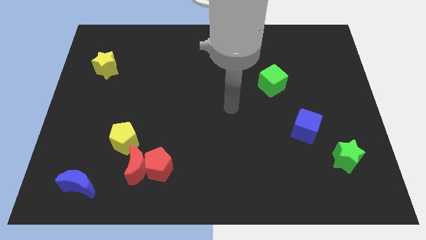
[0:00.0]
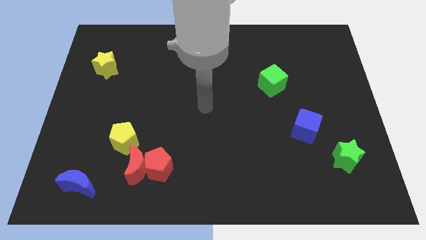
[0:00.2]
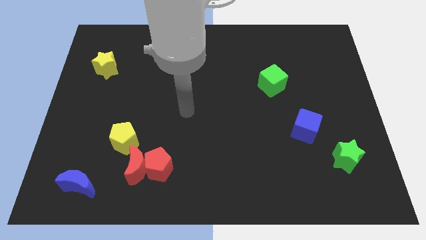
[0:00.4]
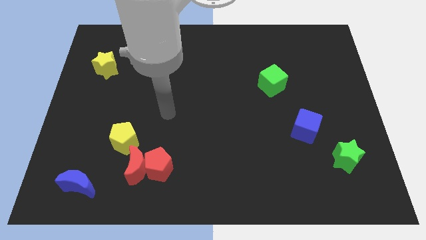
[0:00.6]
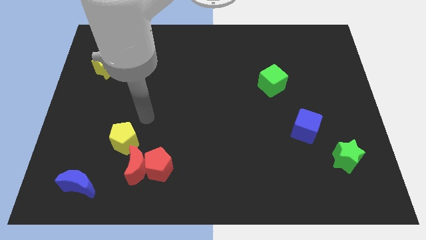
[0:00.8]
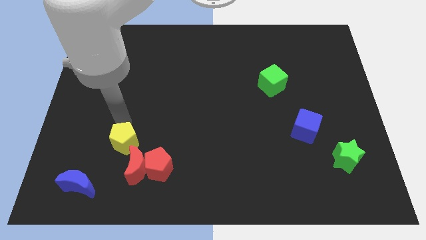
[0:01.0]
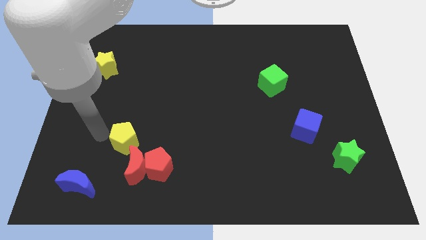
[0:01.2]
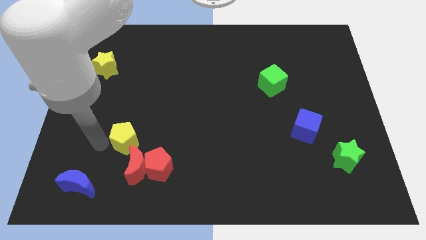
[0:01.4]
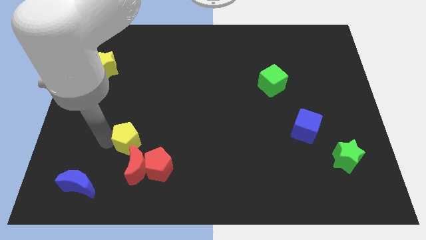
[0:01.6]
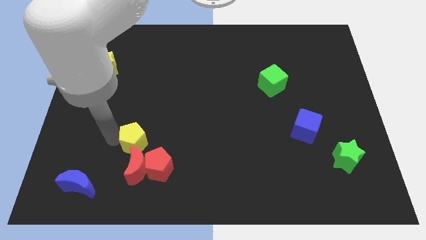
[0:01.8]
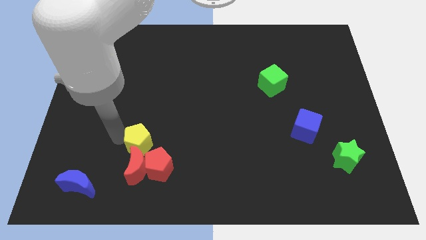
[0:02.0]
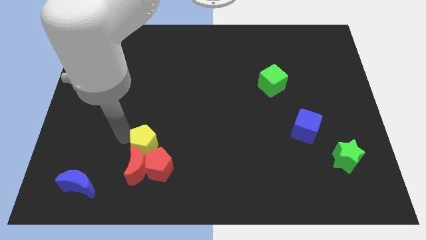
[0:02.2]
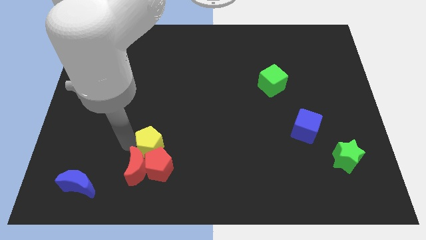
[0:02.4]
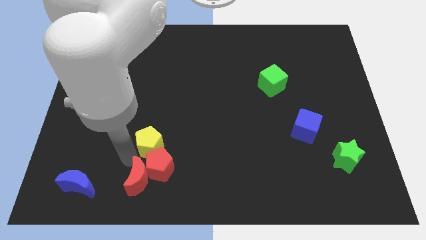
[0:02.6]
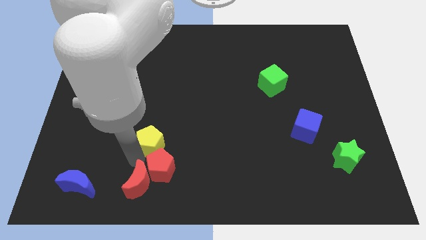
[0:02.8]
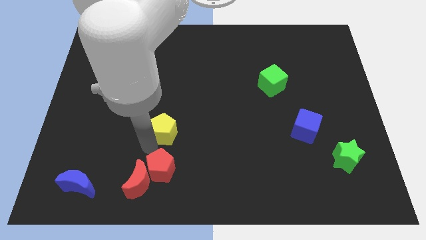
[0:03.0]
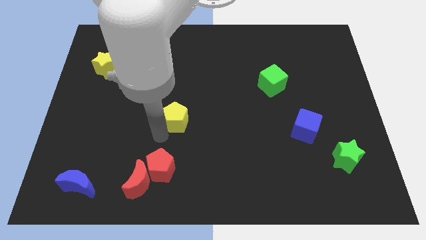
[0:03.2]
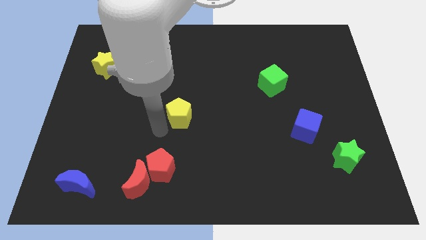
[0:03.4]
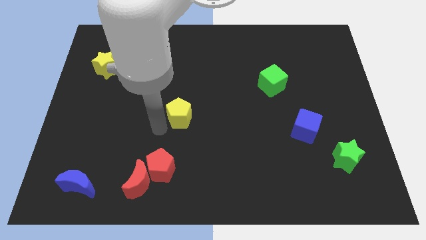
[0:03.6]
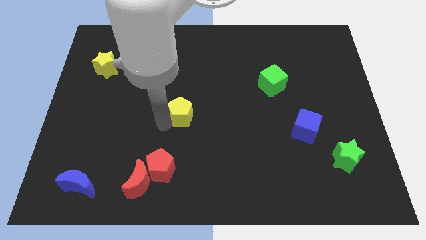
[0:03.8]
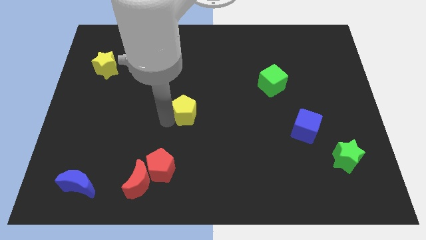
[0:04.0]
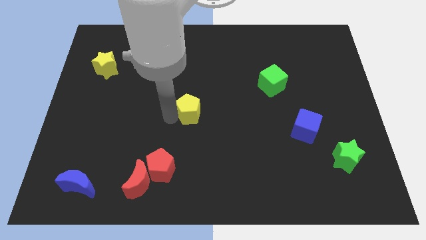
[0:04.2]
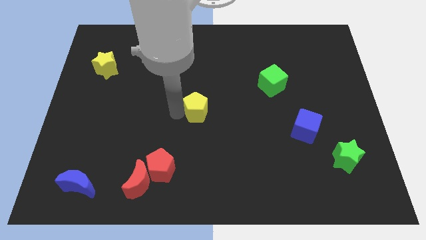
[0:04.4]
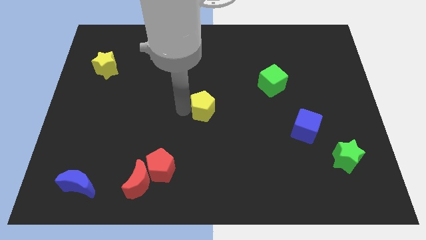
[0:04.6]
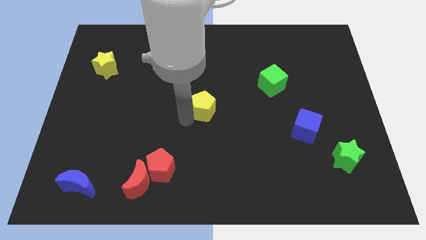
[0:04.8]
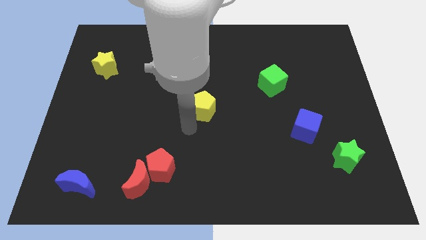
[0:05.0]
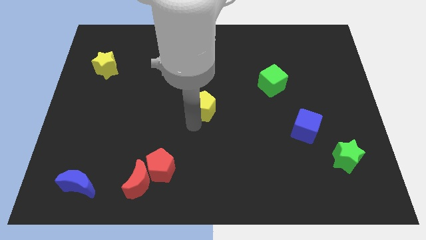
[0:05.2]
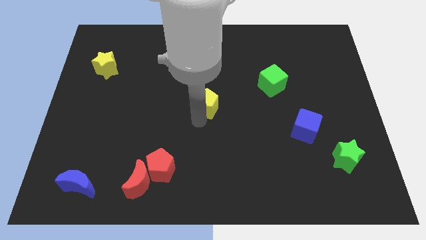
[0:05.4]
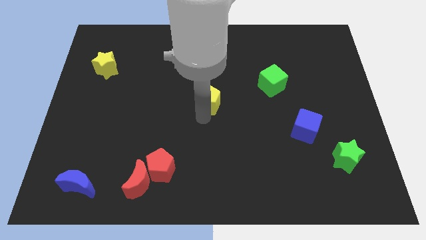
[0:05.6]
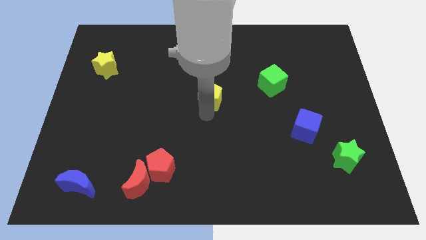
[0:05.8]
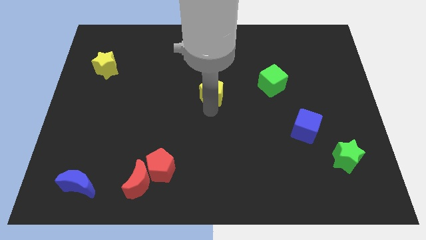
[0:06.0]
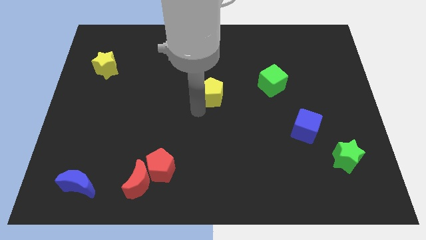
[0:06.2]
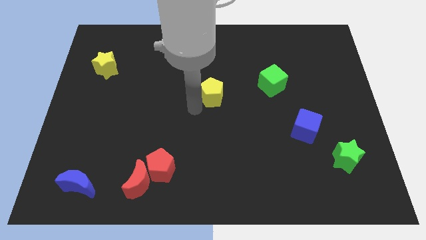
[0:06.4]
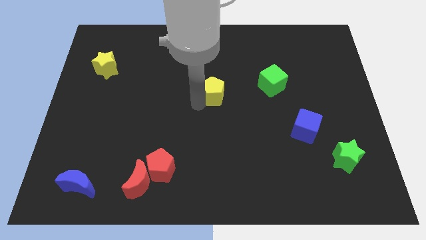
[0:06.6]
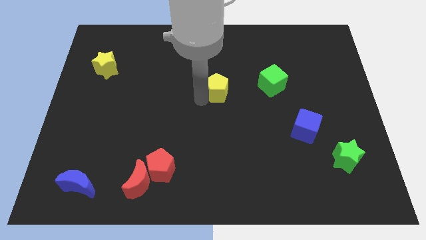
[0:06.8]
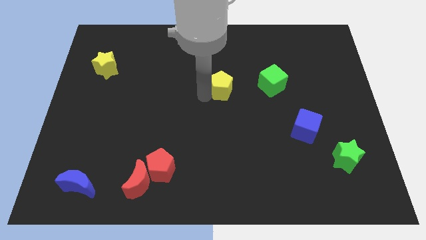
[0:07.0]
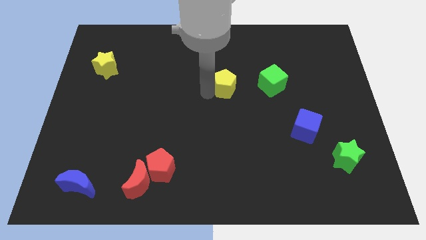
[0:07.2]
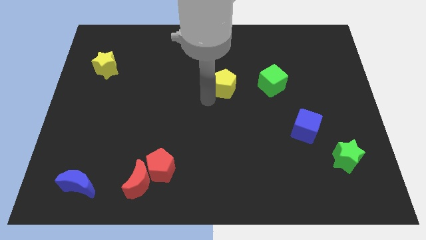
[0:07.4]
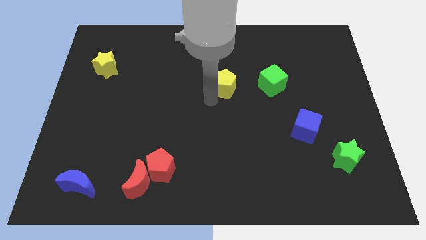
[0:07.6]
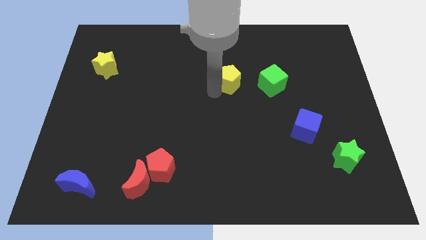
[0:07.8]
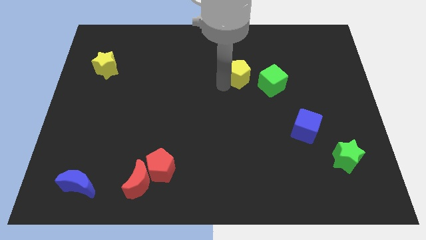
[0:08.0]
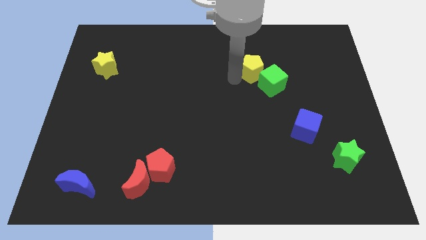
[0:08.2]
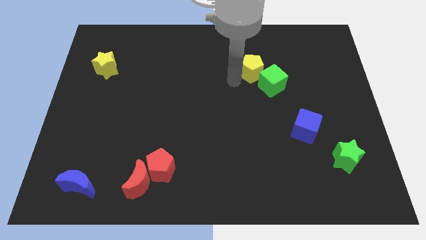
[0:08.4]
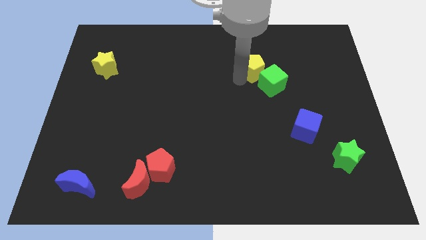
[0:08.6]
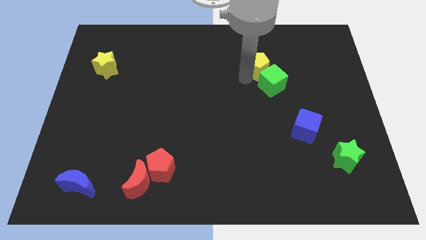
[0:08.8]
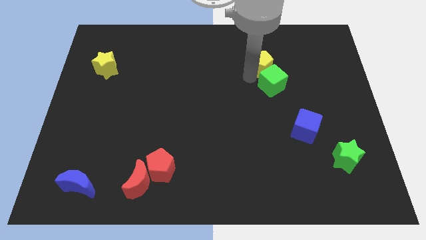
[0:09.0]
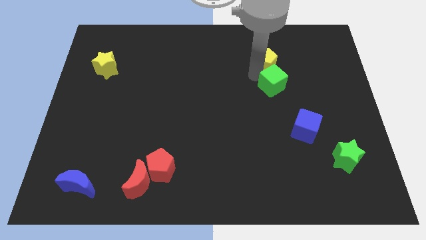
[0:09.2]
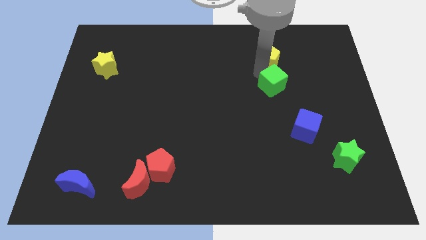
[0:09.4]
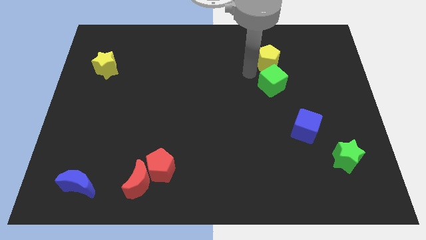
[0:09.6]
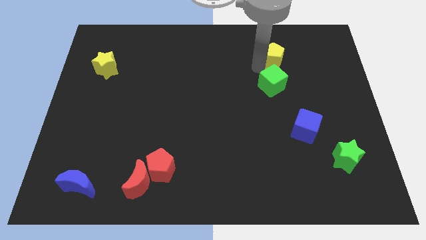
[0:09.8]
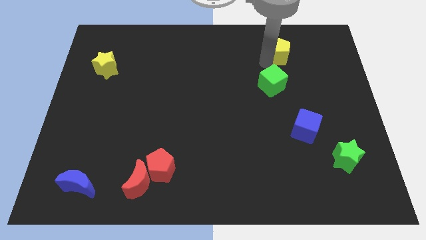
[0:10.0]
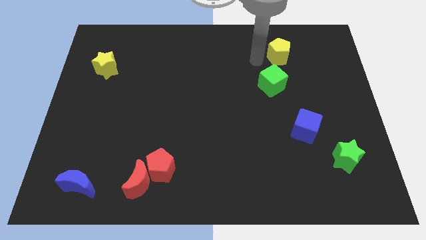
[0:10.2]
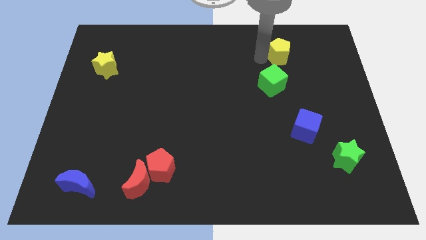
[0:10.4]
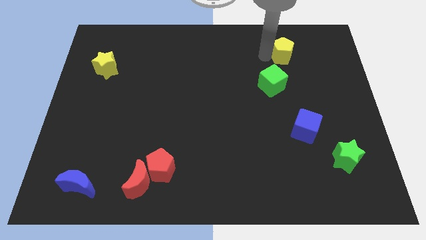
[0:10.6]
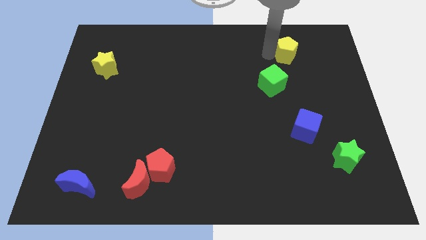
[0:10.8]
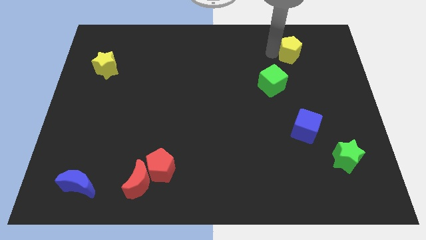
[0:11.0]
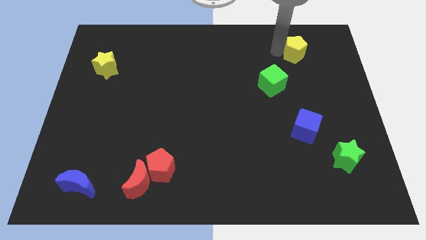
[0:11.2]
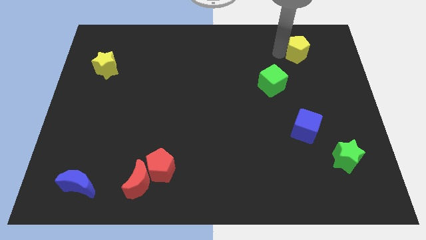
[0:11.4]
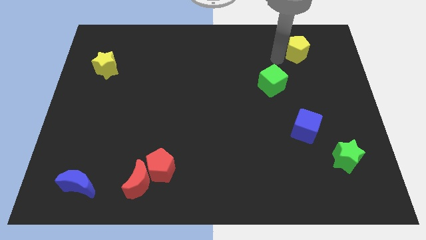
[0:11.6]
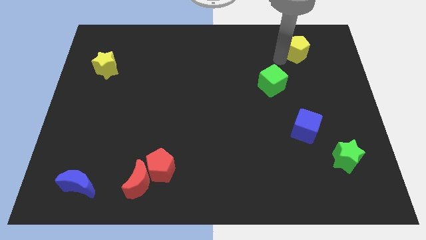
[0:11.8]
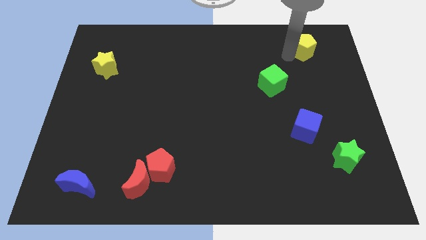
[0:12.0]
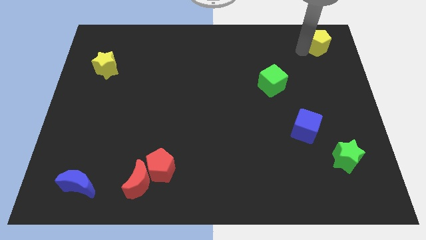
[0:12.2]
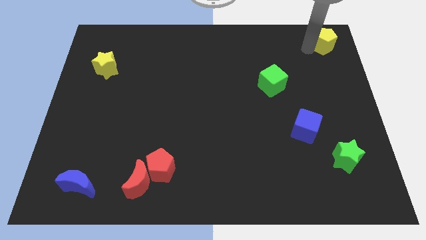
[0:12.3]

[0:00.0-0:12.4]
put the yellow pentagon to the top right corner
